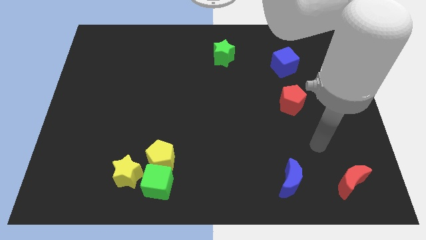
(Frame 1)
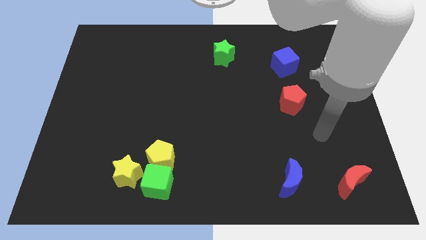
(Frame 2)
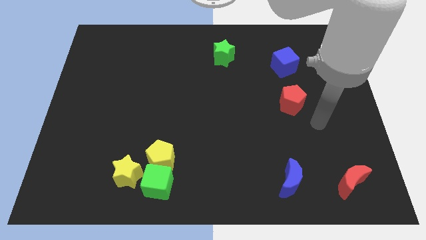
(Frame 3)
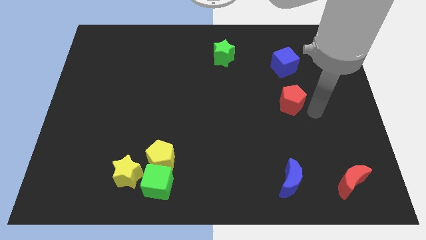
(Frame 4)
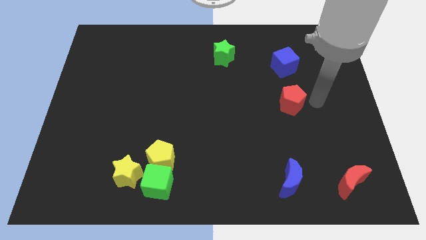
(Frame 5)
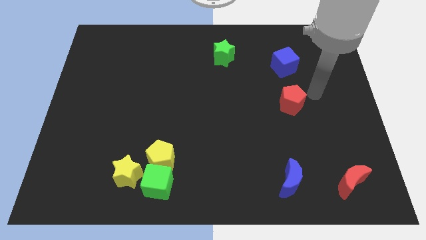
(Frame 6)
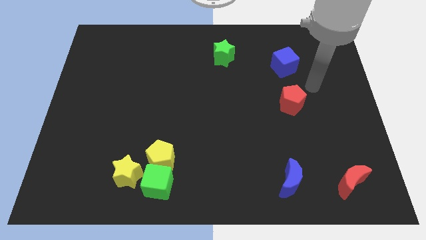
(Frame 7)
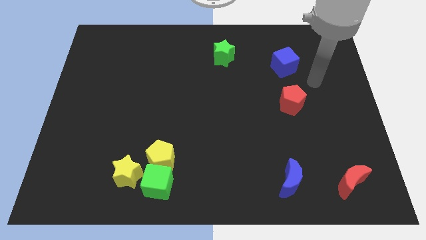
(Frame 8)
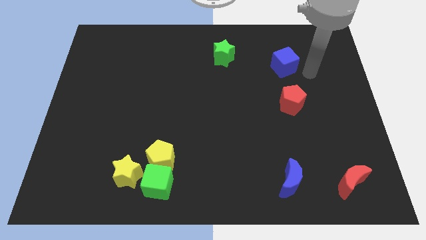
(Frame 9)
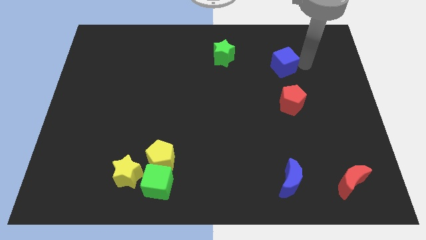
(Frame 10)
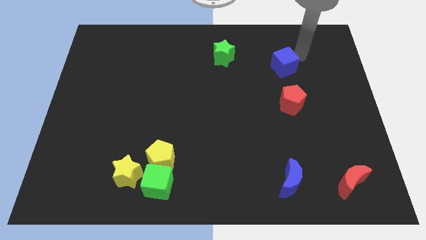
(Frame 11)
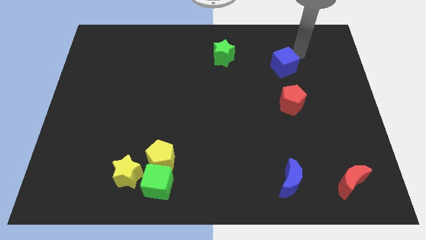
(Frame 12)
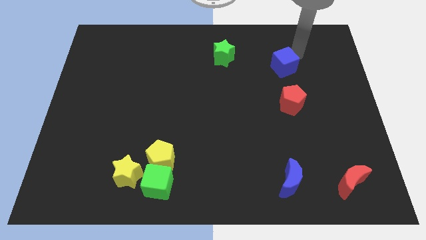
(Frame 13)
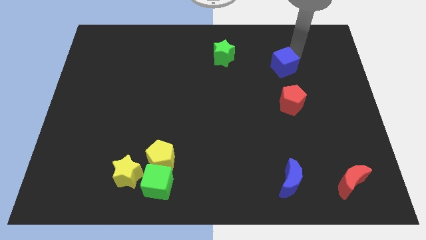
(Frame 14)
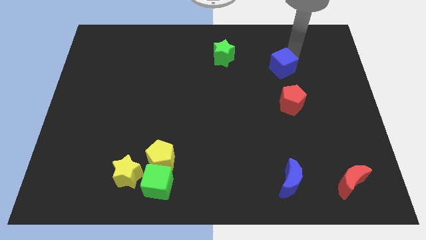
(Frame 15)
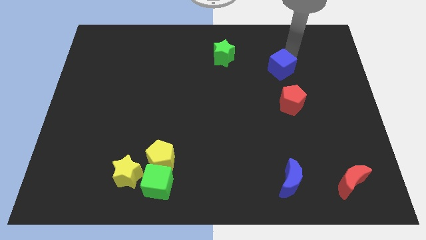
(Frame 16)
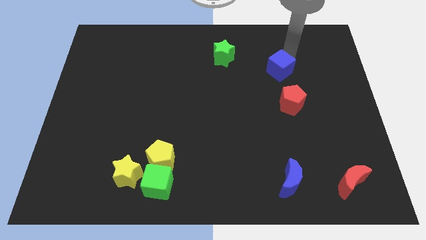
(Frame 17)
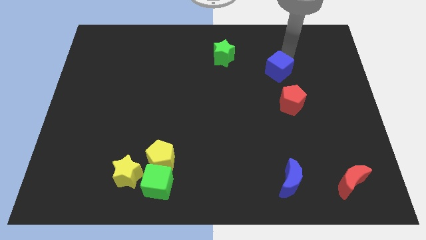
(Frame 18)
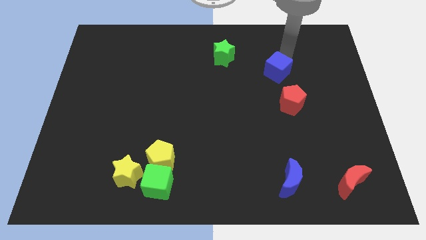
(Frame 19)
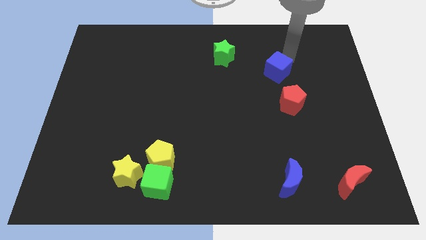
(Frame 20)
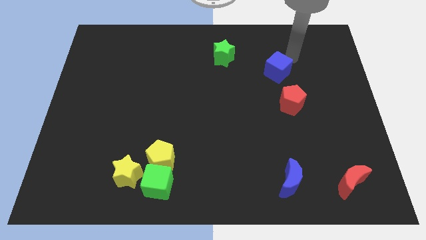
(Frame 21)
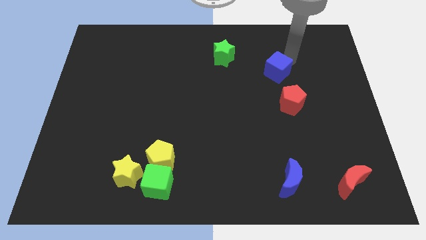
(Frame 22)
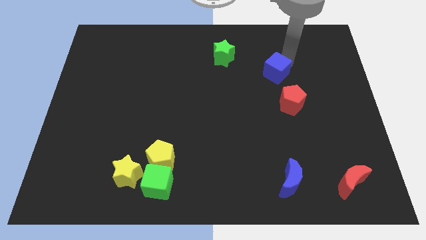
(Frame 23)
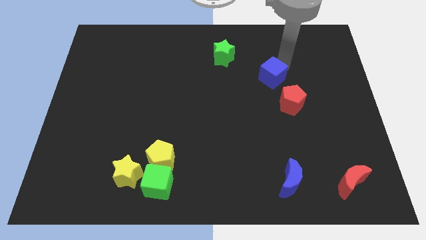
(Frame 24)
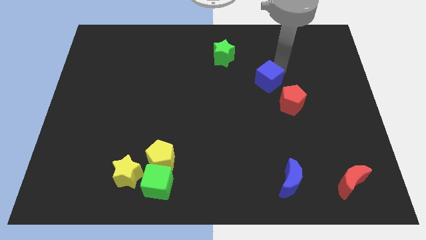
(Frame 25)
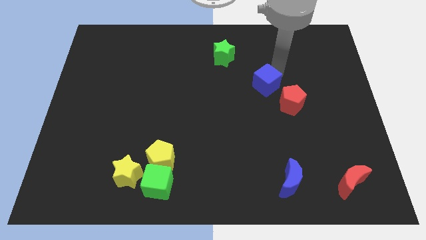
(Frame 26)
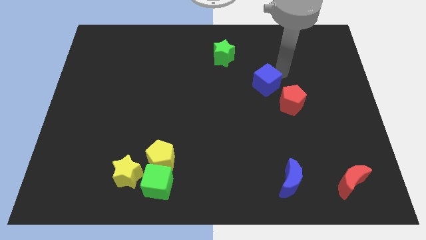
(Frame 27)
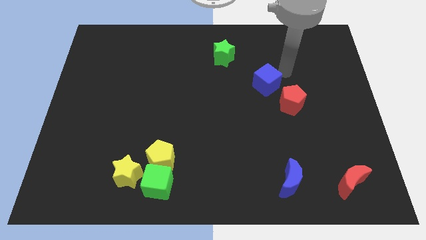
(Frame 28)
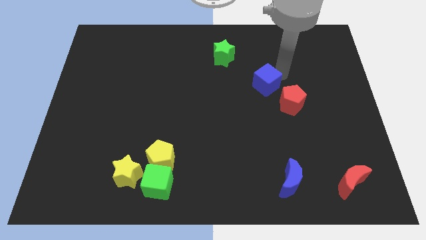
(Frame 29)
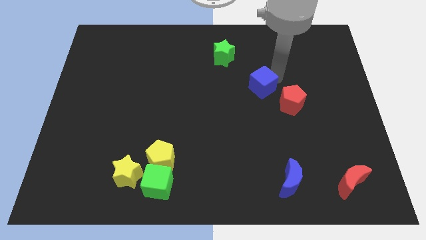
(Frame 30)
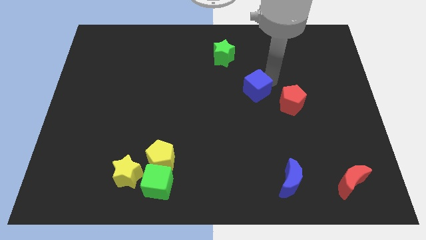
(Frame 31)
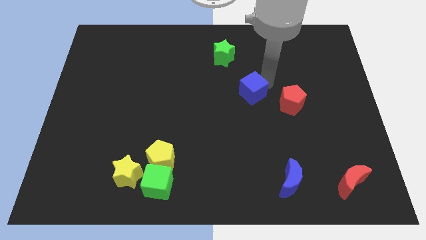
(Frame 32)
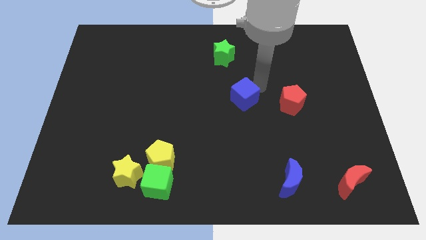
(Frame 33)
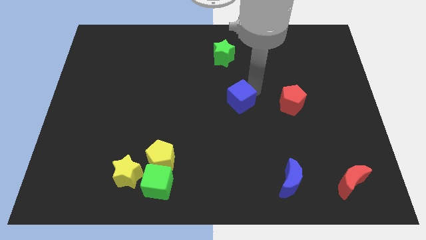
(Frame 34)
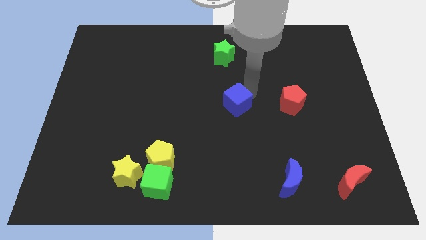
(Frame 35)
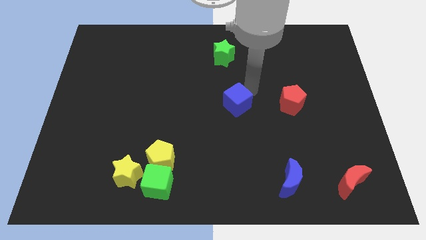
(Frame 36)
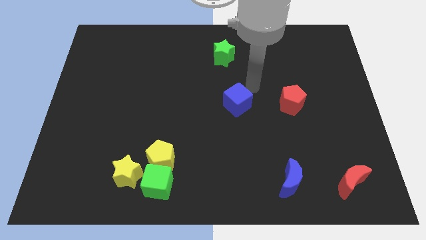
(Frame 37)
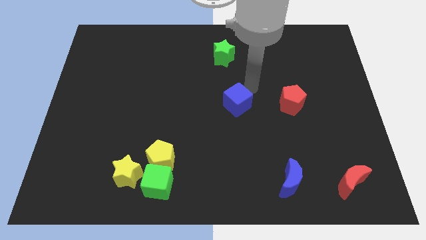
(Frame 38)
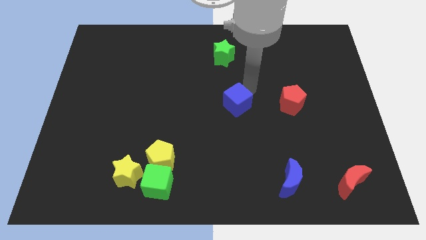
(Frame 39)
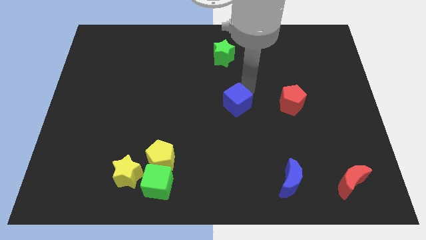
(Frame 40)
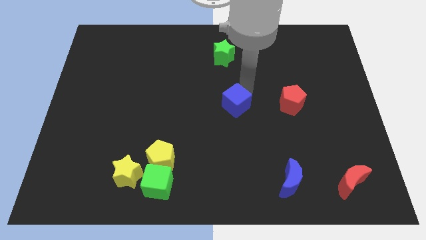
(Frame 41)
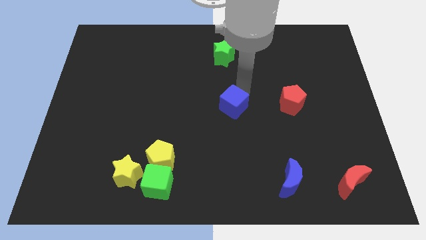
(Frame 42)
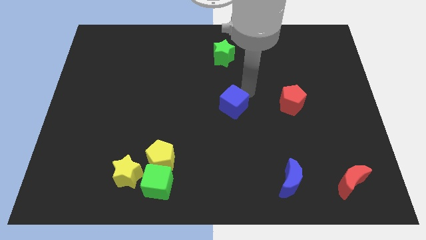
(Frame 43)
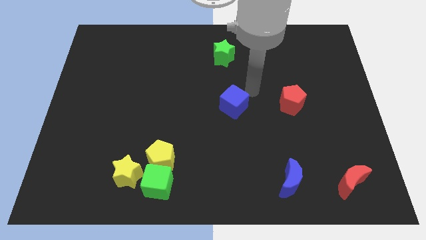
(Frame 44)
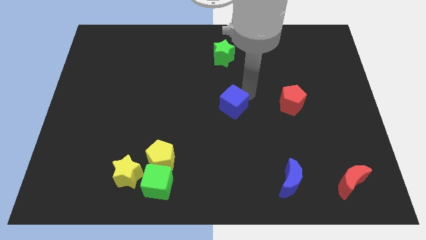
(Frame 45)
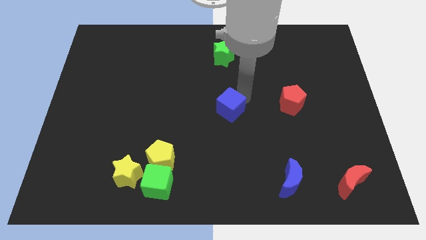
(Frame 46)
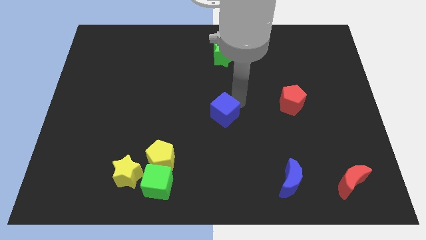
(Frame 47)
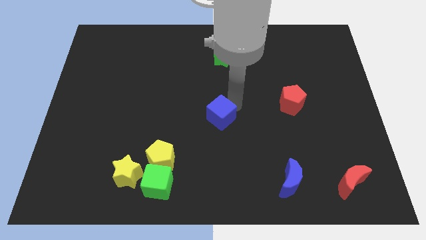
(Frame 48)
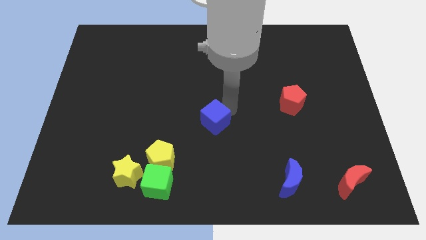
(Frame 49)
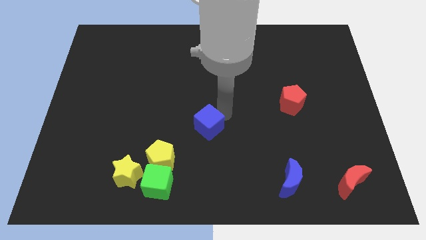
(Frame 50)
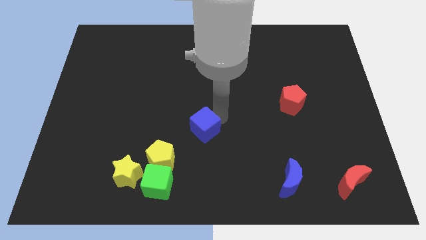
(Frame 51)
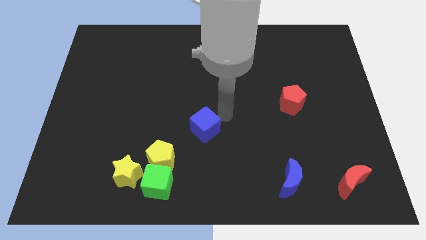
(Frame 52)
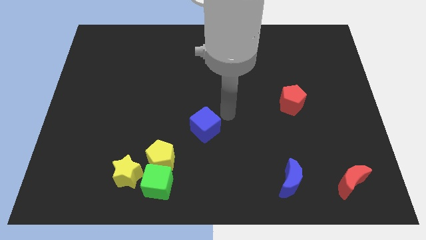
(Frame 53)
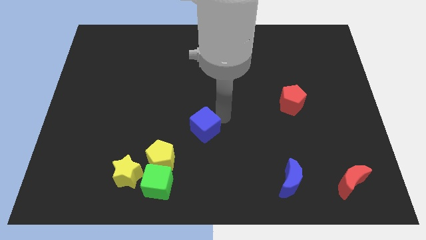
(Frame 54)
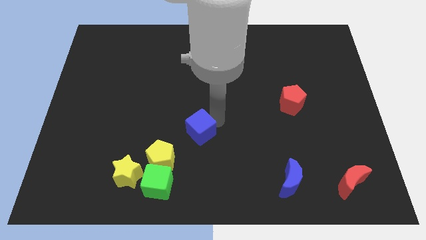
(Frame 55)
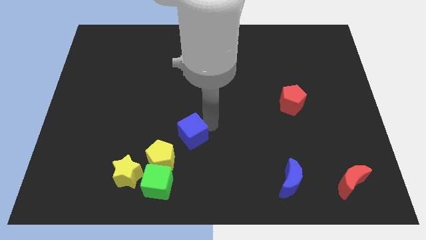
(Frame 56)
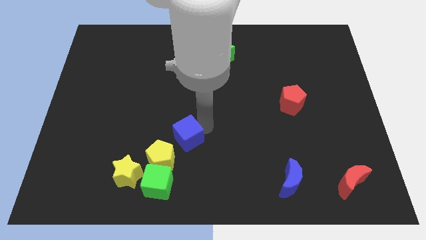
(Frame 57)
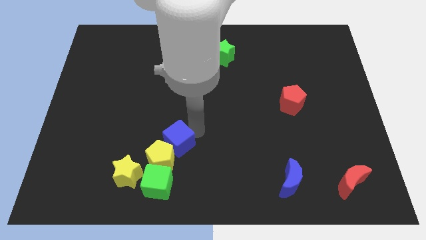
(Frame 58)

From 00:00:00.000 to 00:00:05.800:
put the blue cube next to the yellow pentagon

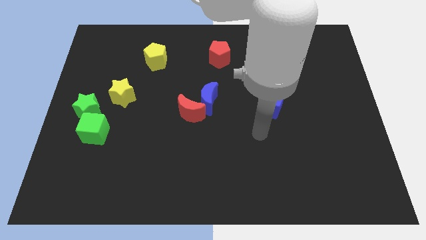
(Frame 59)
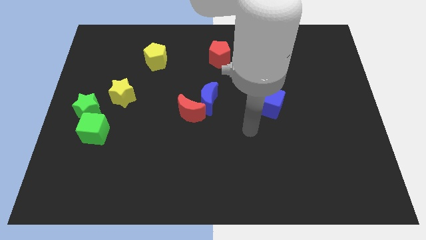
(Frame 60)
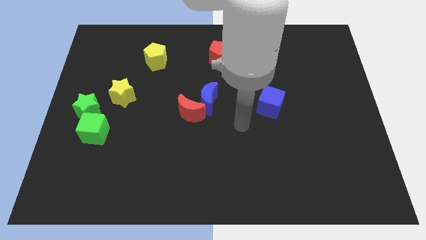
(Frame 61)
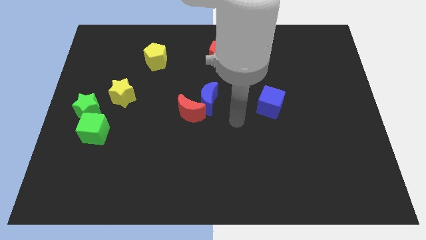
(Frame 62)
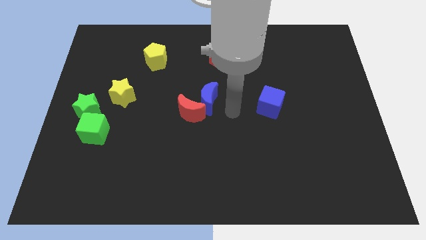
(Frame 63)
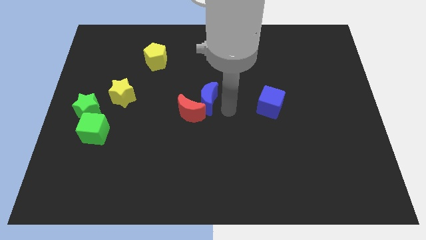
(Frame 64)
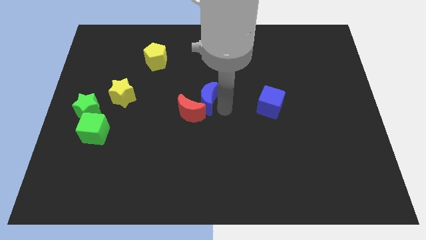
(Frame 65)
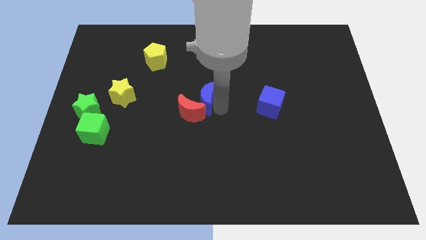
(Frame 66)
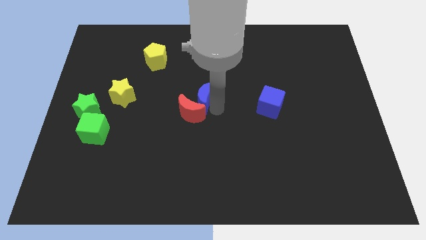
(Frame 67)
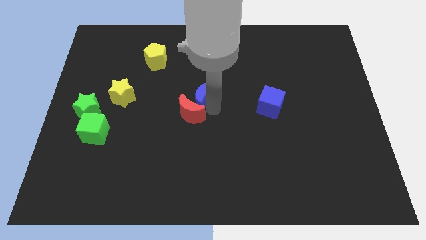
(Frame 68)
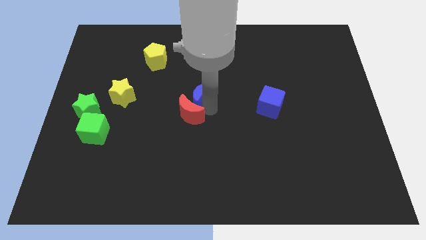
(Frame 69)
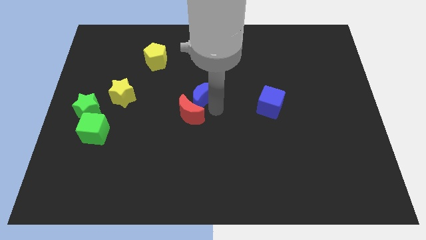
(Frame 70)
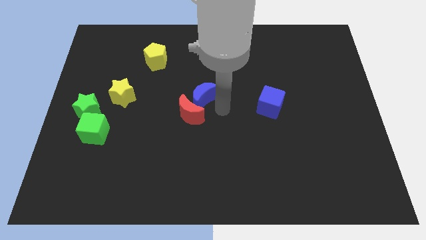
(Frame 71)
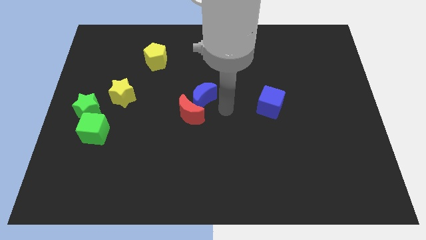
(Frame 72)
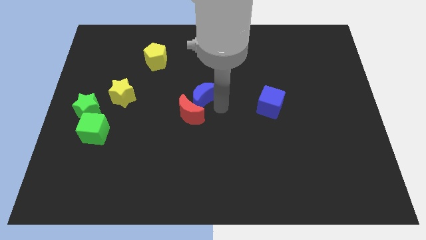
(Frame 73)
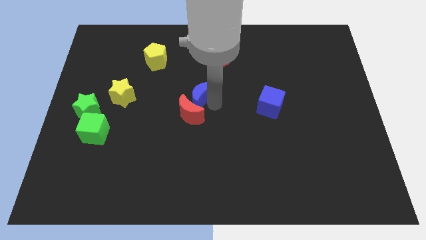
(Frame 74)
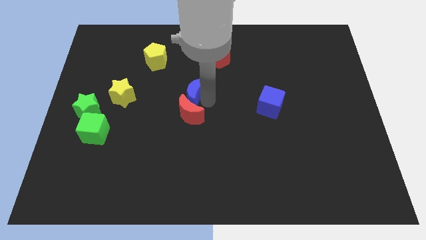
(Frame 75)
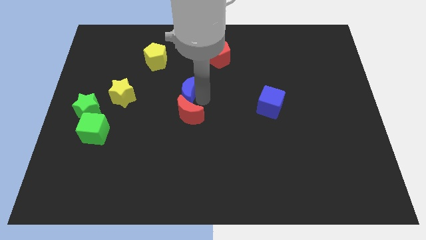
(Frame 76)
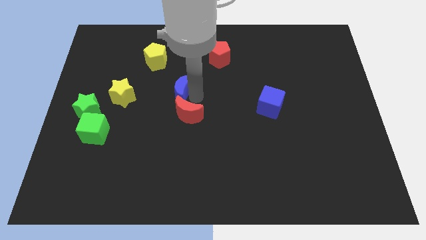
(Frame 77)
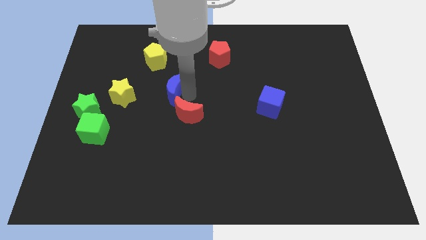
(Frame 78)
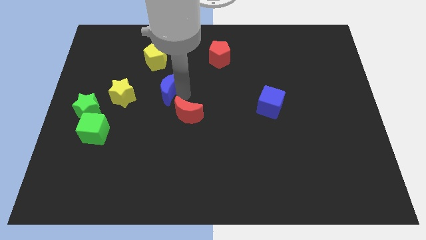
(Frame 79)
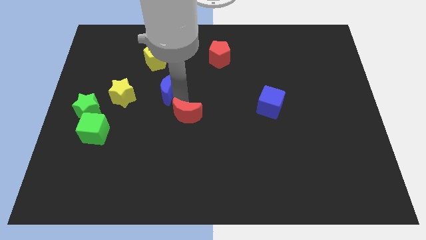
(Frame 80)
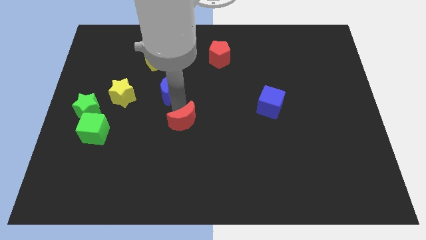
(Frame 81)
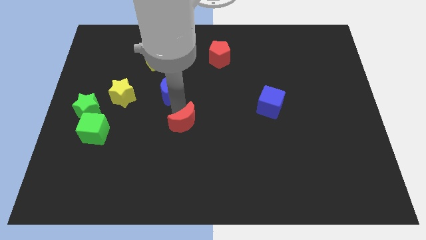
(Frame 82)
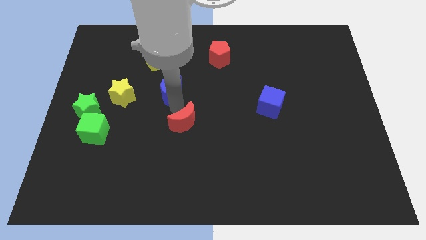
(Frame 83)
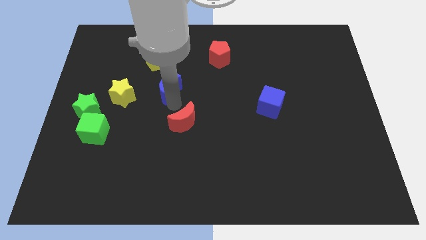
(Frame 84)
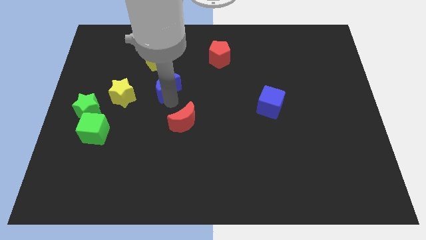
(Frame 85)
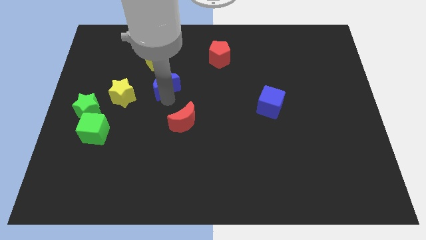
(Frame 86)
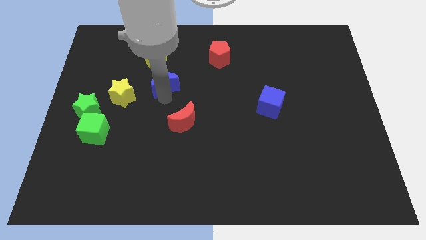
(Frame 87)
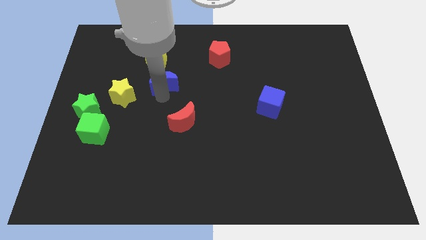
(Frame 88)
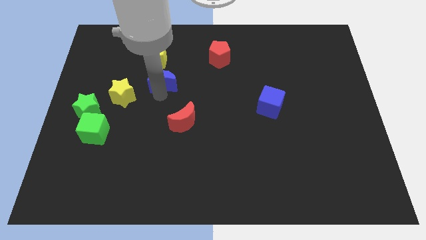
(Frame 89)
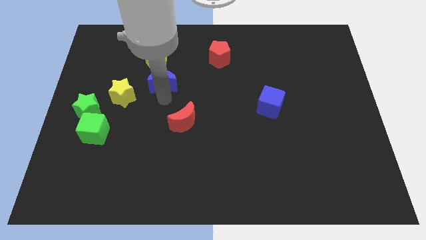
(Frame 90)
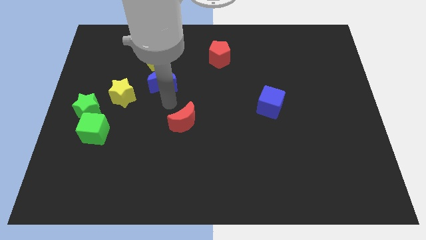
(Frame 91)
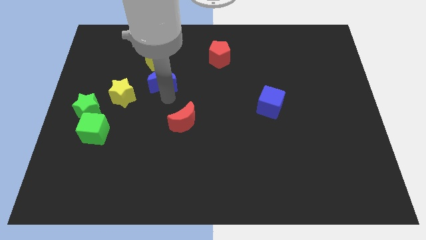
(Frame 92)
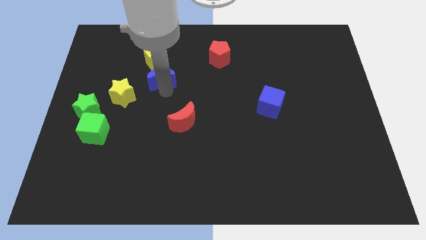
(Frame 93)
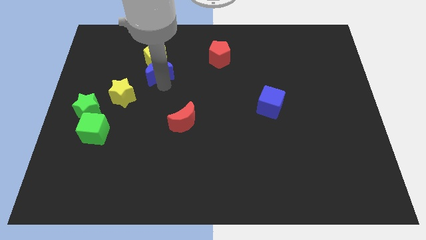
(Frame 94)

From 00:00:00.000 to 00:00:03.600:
move the blue moon to the yellow pentagon
